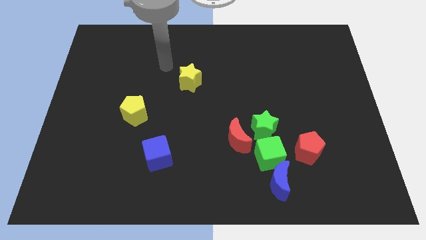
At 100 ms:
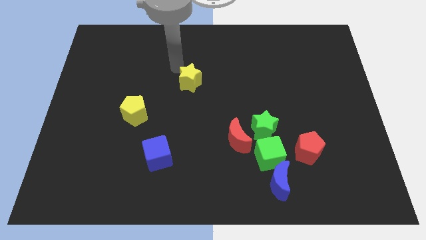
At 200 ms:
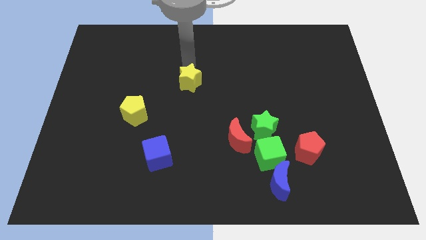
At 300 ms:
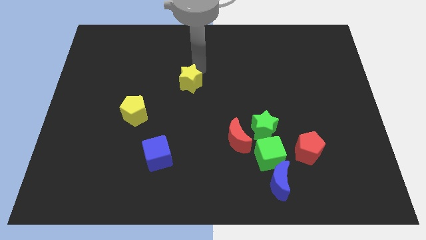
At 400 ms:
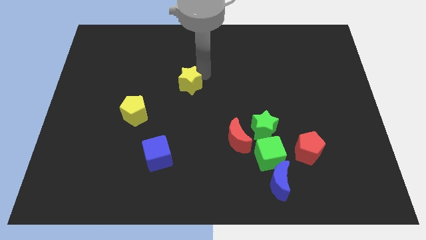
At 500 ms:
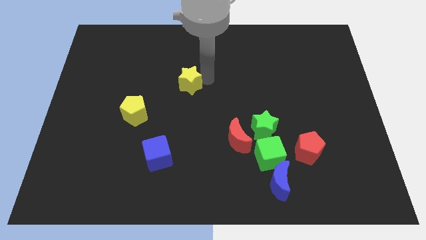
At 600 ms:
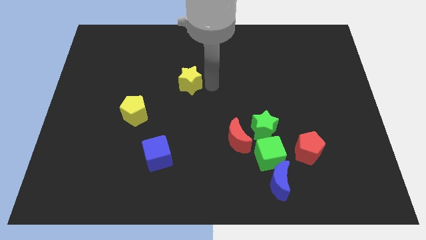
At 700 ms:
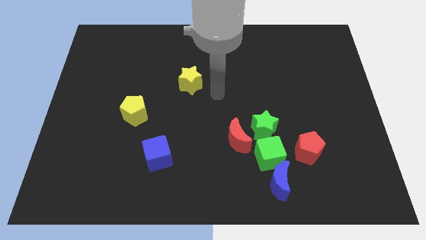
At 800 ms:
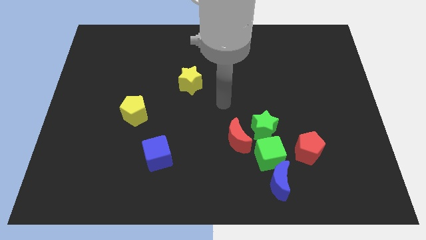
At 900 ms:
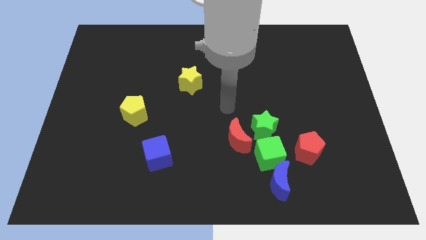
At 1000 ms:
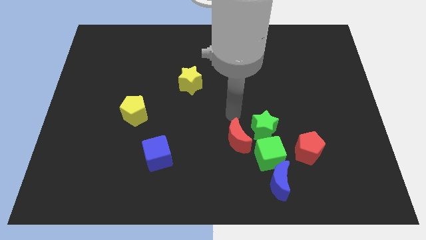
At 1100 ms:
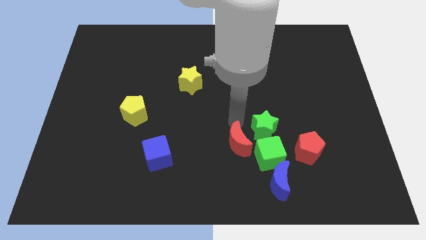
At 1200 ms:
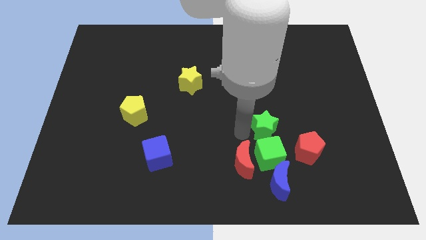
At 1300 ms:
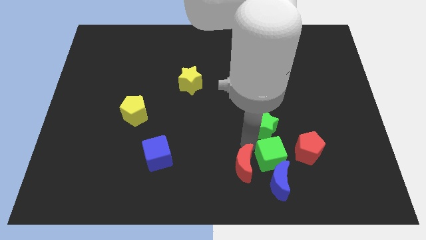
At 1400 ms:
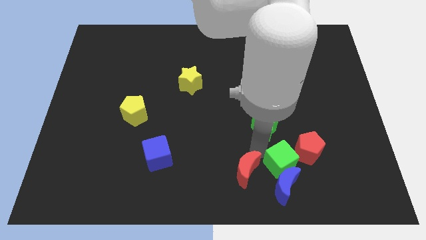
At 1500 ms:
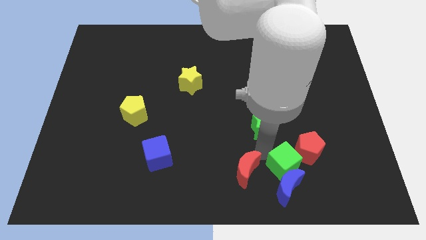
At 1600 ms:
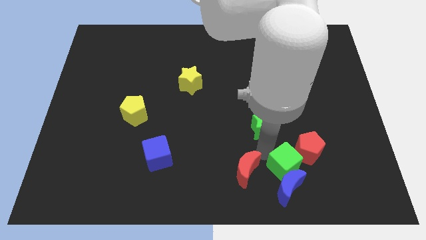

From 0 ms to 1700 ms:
separate the green star from the red moon and green cube

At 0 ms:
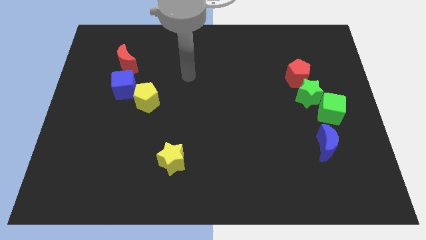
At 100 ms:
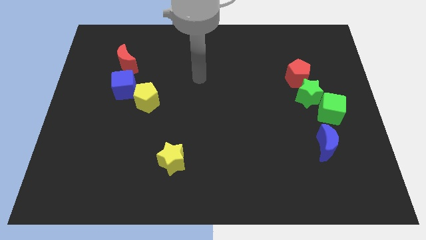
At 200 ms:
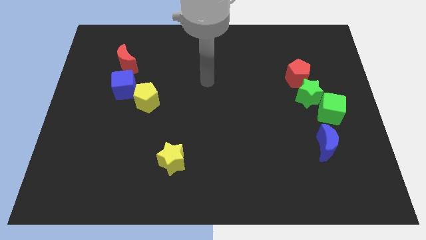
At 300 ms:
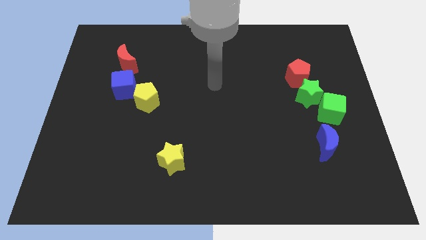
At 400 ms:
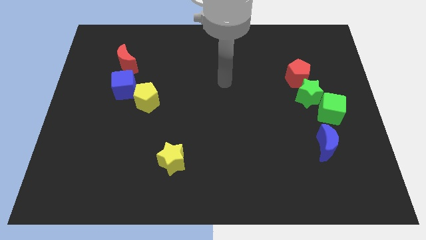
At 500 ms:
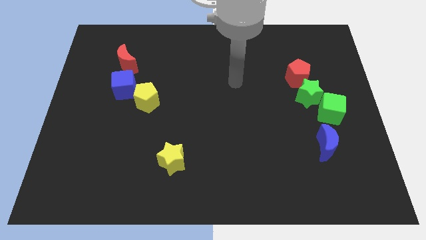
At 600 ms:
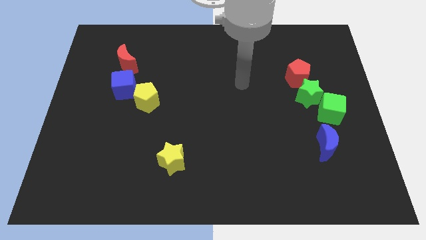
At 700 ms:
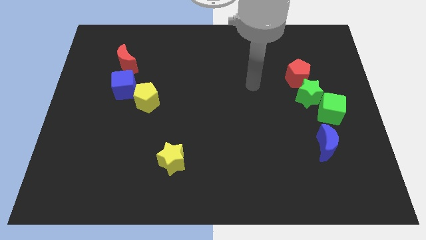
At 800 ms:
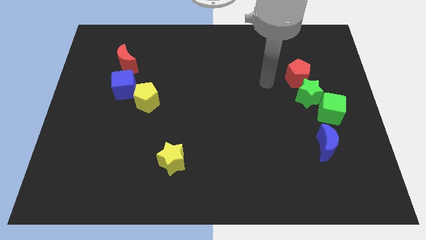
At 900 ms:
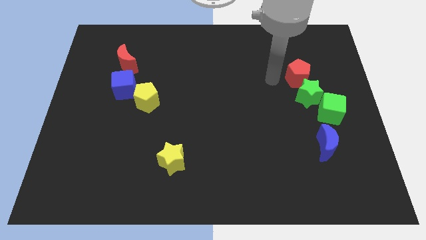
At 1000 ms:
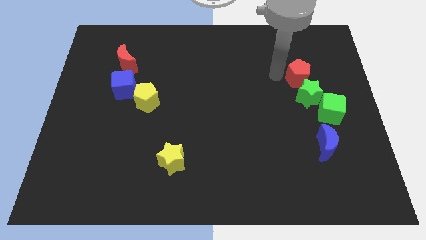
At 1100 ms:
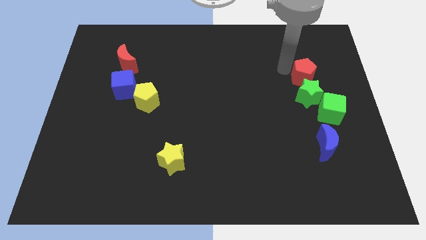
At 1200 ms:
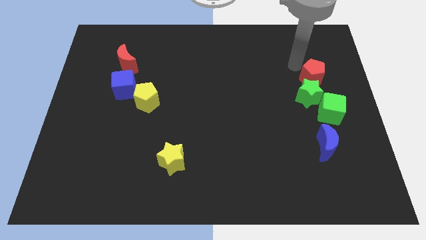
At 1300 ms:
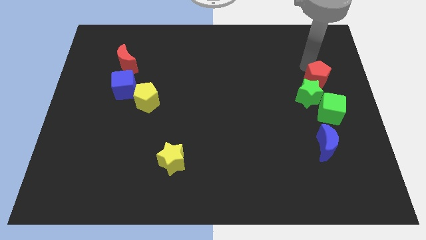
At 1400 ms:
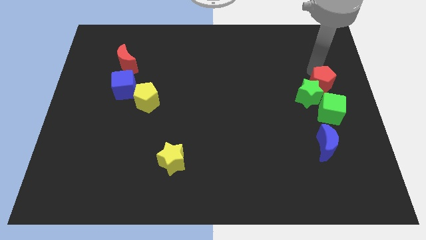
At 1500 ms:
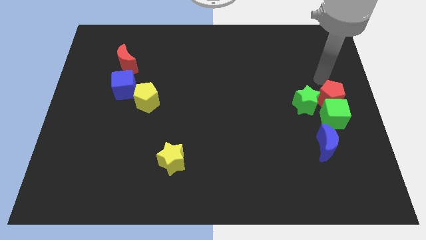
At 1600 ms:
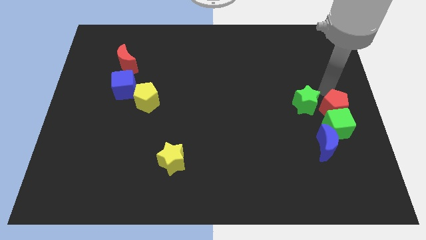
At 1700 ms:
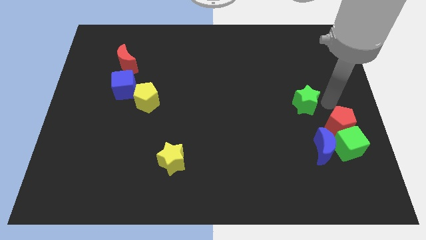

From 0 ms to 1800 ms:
separate the green star from the green cube and red pentagon

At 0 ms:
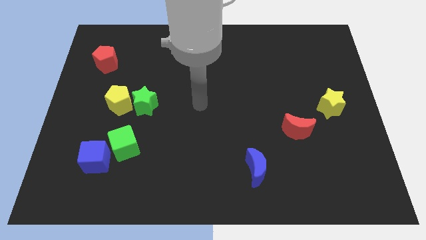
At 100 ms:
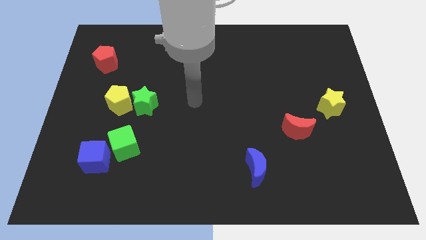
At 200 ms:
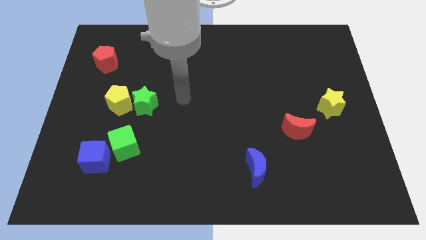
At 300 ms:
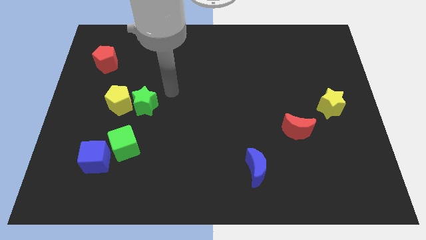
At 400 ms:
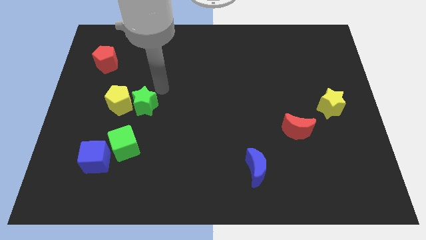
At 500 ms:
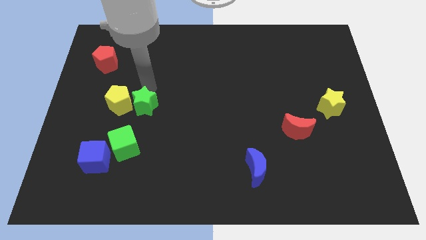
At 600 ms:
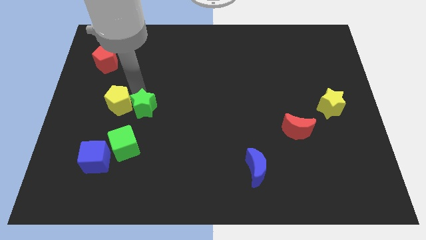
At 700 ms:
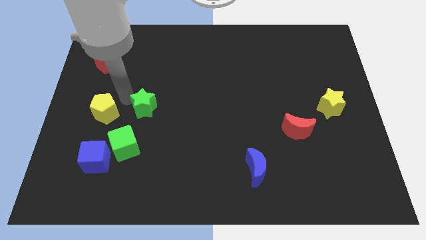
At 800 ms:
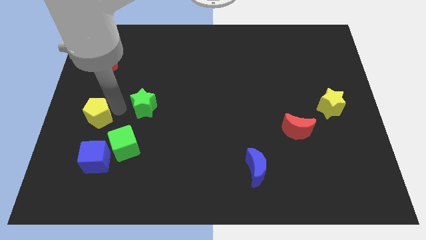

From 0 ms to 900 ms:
move the green star away from the yellow pentagon

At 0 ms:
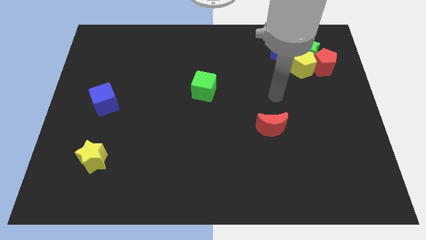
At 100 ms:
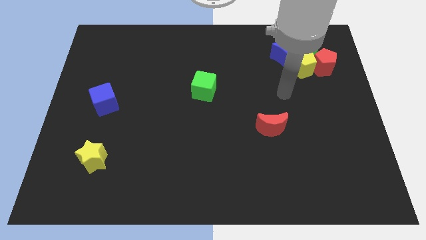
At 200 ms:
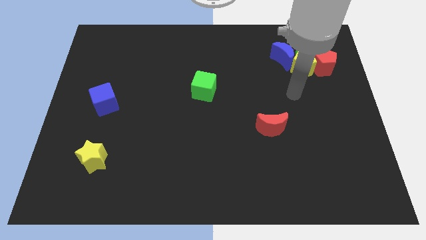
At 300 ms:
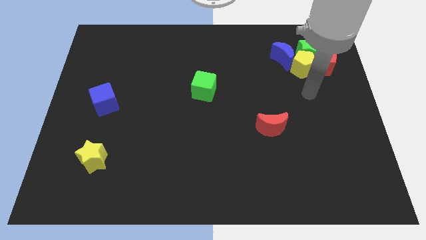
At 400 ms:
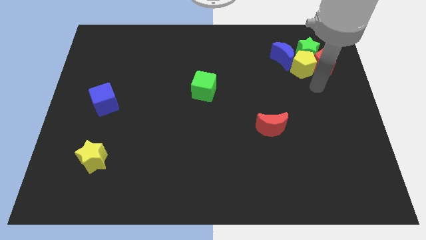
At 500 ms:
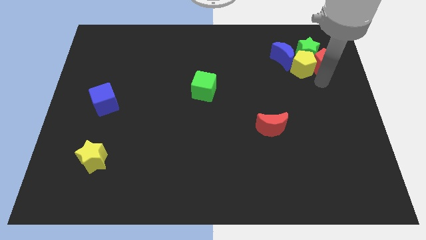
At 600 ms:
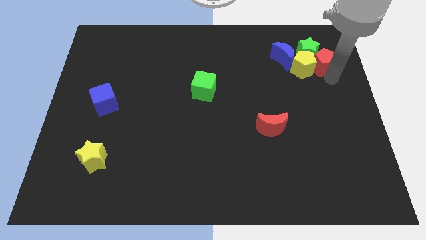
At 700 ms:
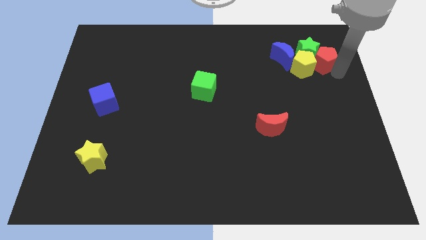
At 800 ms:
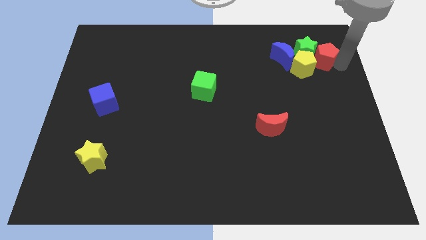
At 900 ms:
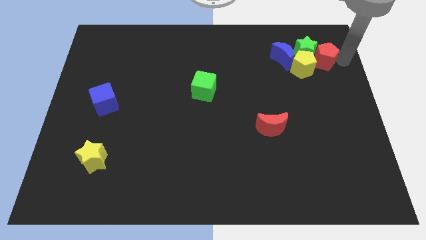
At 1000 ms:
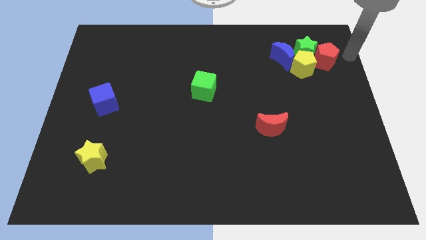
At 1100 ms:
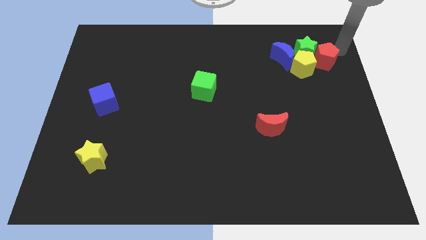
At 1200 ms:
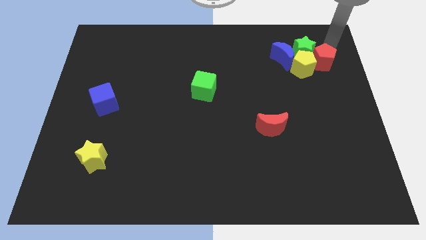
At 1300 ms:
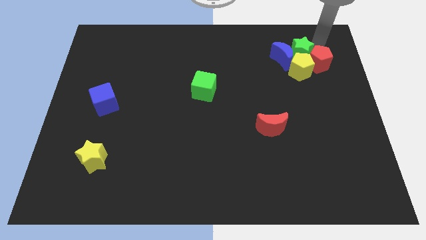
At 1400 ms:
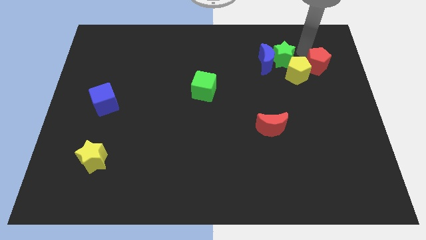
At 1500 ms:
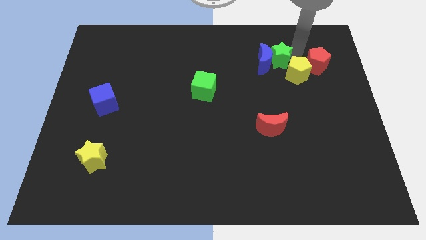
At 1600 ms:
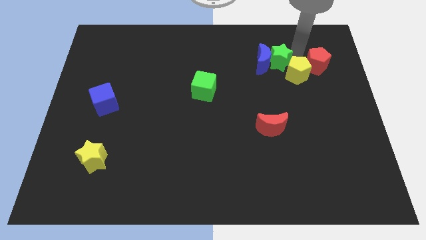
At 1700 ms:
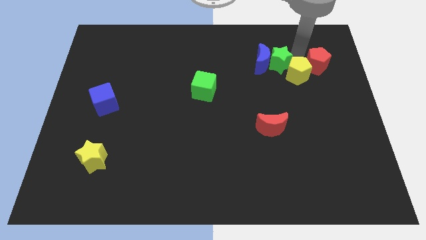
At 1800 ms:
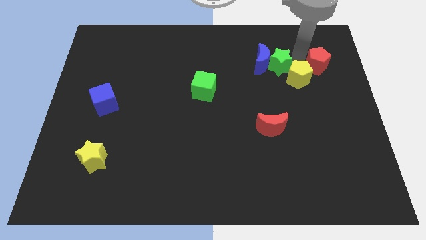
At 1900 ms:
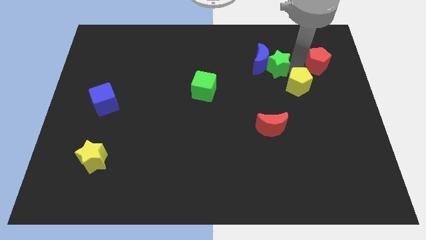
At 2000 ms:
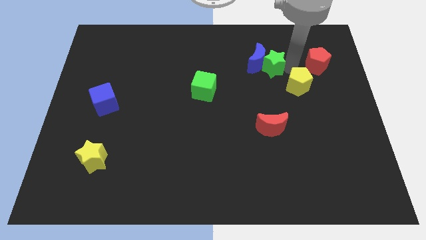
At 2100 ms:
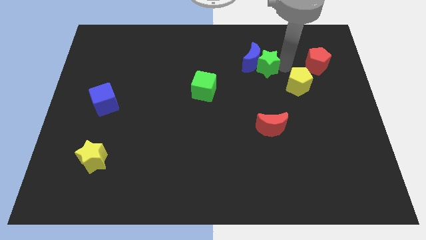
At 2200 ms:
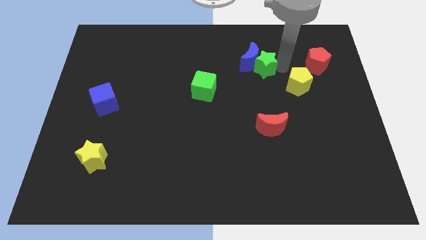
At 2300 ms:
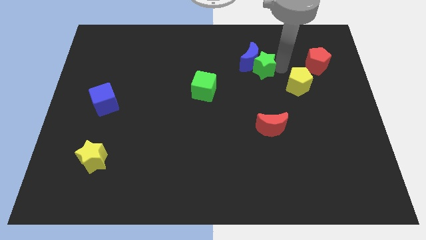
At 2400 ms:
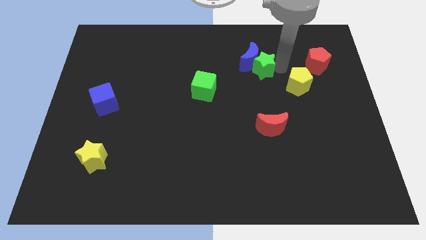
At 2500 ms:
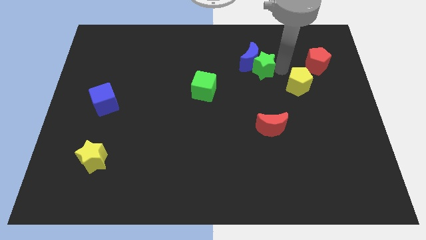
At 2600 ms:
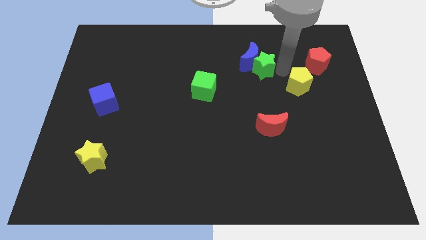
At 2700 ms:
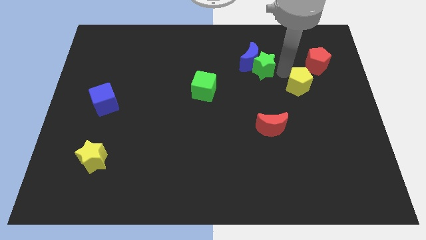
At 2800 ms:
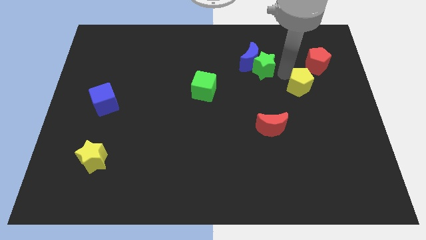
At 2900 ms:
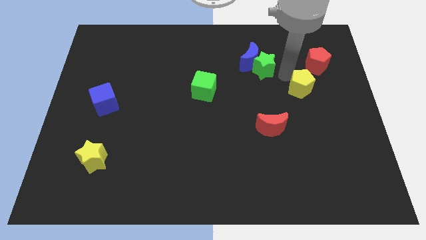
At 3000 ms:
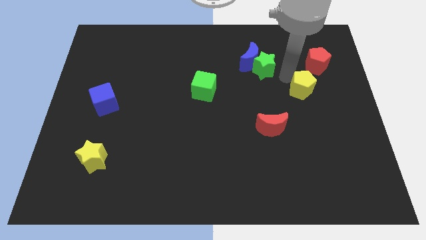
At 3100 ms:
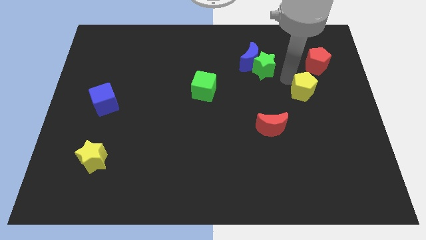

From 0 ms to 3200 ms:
separate the yellow pentagon from the green star, red pentagon, and blue moon

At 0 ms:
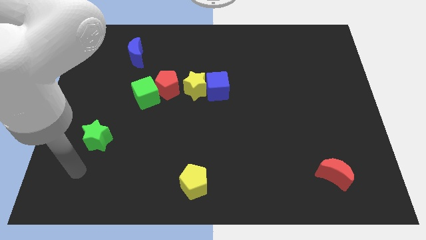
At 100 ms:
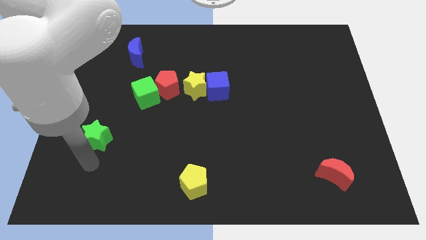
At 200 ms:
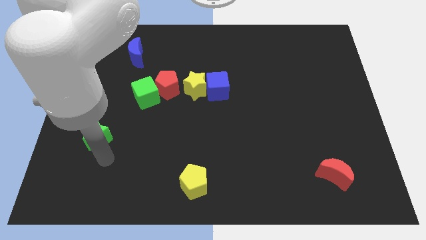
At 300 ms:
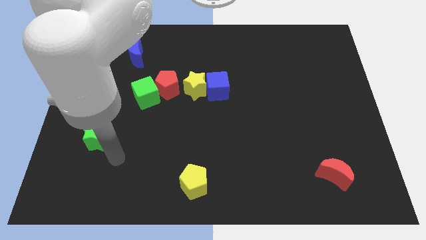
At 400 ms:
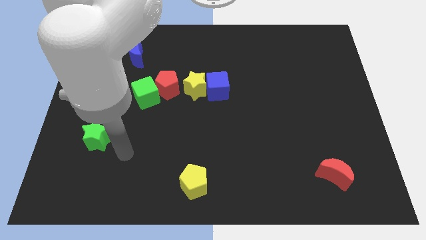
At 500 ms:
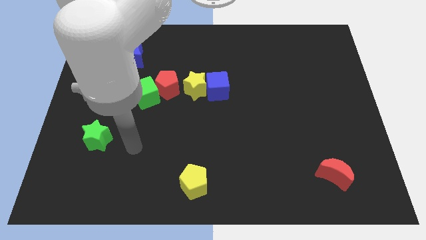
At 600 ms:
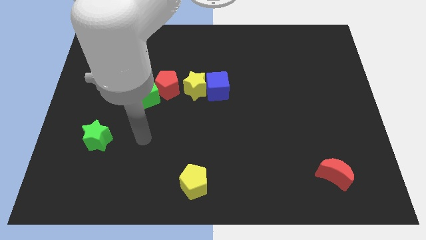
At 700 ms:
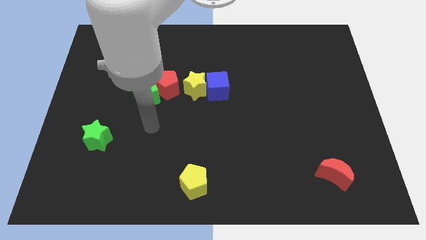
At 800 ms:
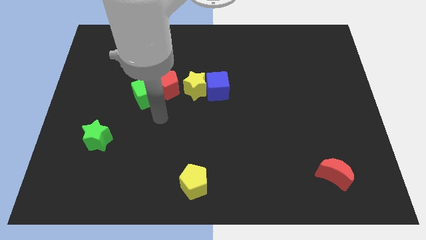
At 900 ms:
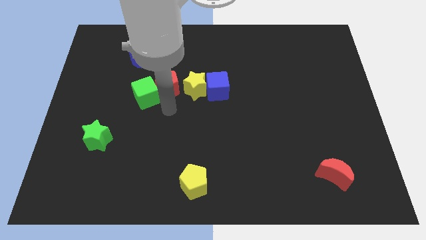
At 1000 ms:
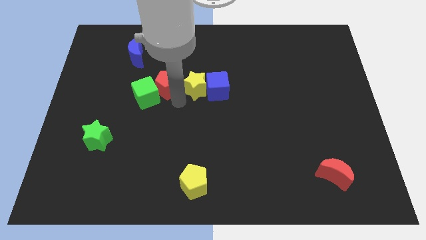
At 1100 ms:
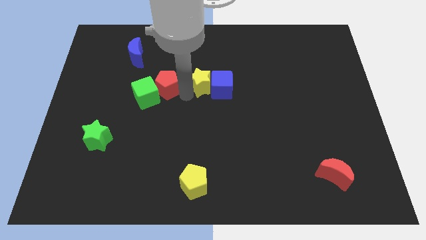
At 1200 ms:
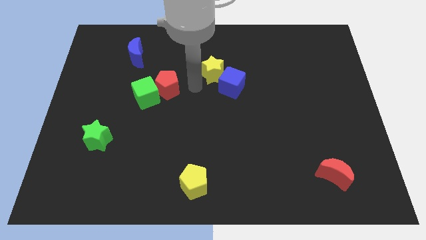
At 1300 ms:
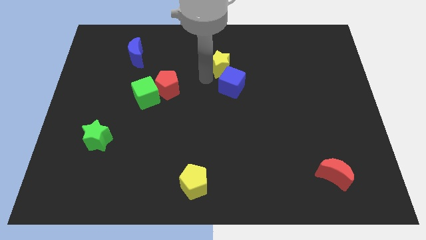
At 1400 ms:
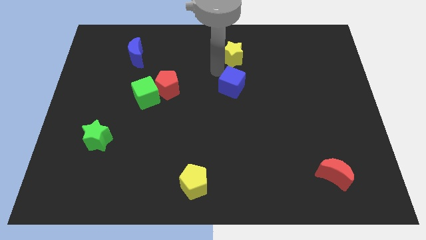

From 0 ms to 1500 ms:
pull the blue cube apart from the yellow star

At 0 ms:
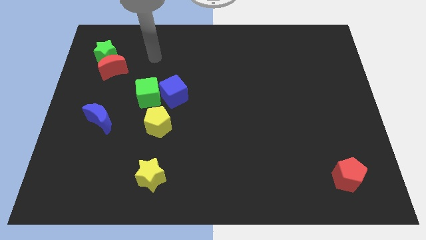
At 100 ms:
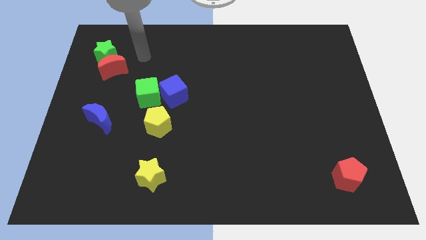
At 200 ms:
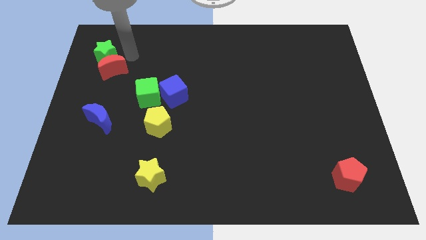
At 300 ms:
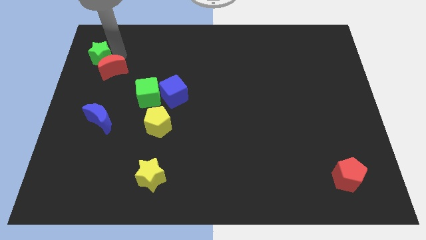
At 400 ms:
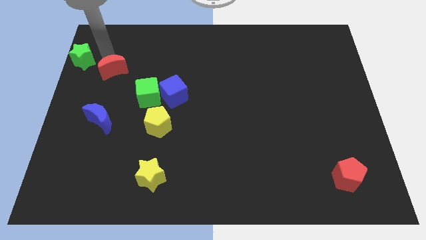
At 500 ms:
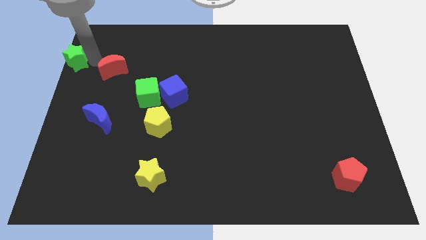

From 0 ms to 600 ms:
move the red moon away from the green star
